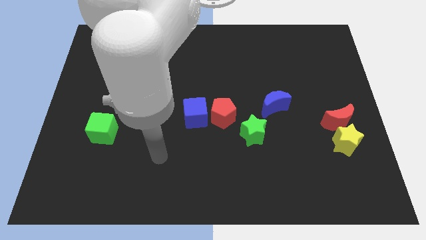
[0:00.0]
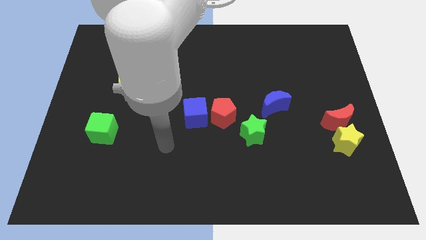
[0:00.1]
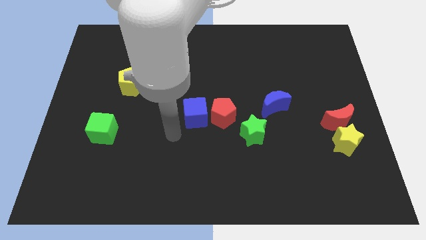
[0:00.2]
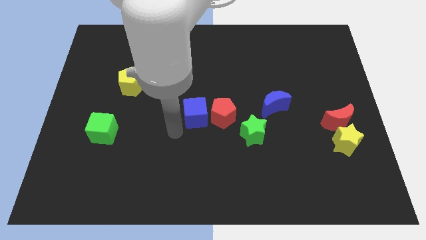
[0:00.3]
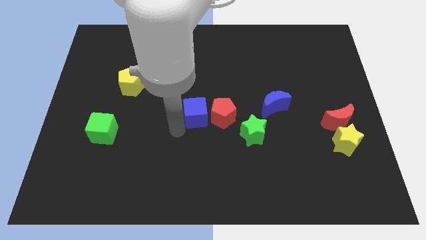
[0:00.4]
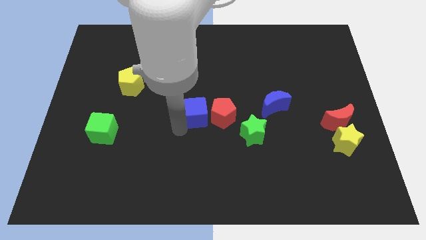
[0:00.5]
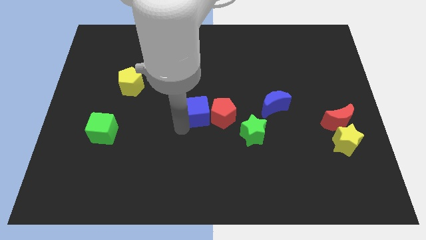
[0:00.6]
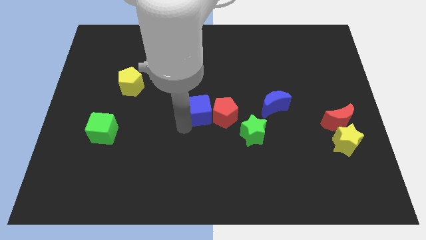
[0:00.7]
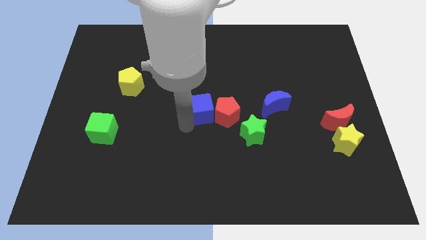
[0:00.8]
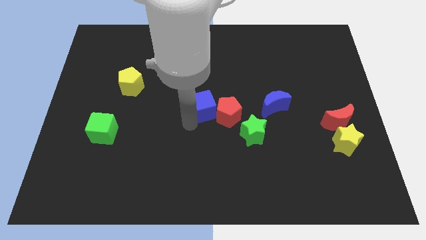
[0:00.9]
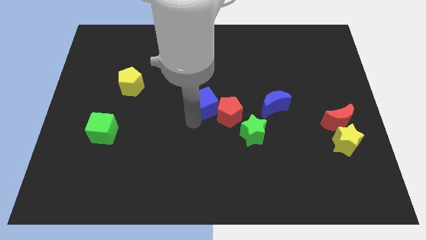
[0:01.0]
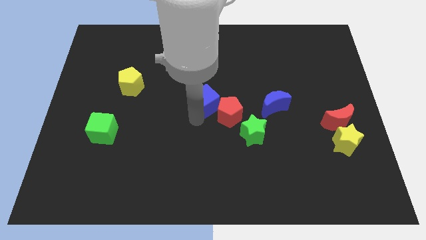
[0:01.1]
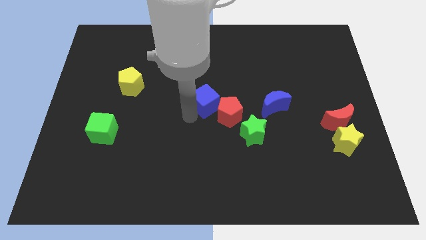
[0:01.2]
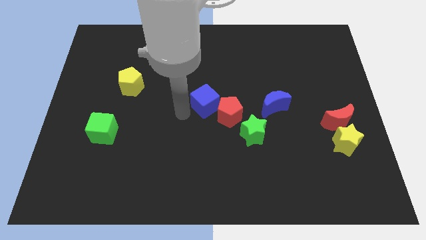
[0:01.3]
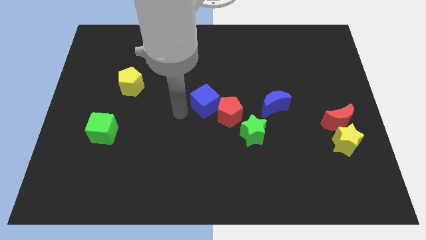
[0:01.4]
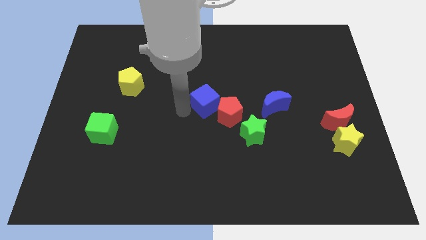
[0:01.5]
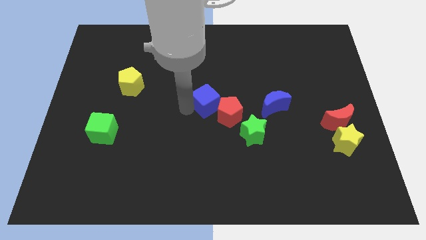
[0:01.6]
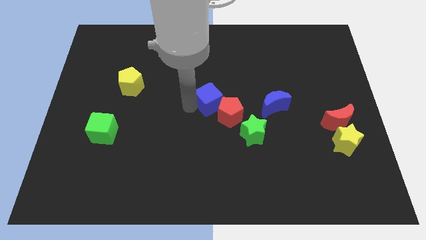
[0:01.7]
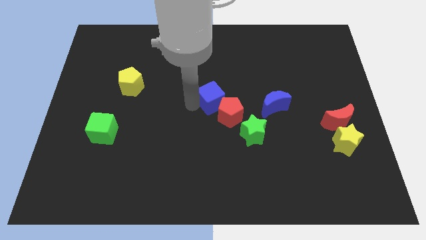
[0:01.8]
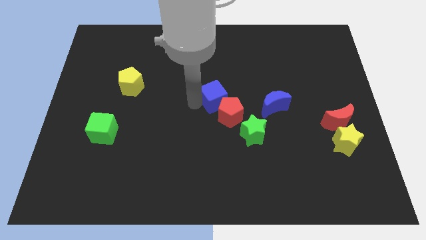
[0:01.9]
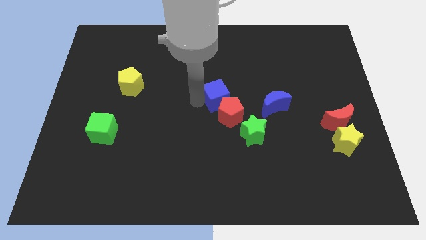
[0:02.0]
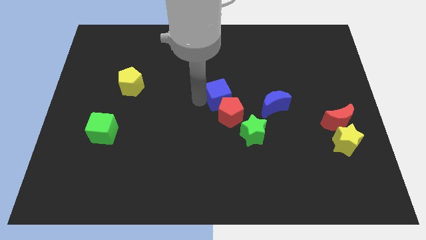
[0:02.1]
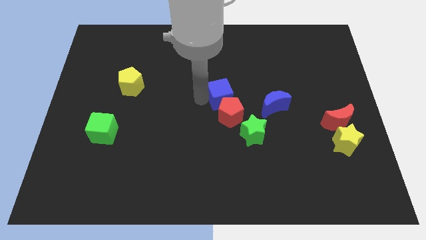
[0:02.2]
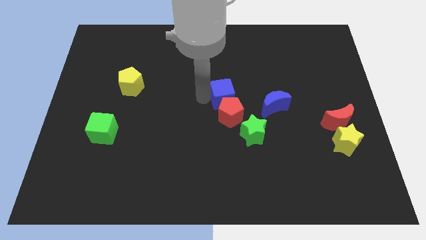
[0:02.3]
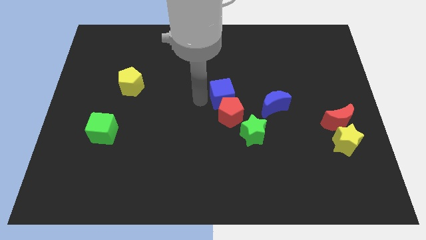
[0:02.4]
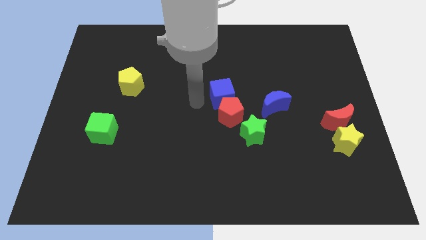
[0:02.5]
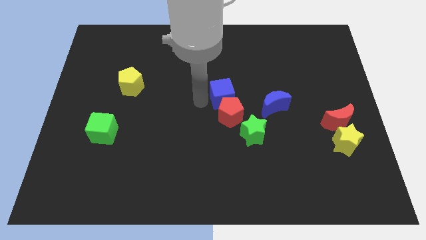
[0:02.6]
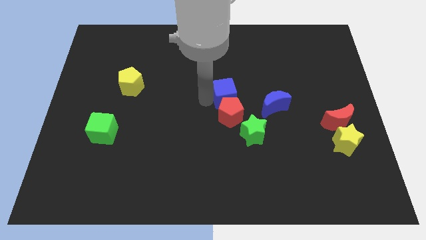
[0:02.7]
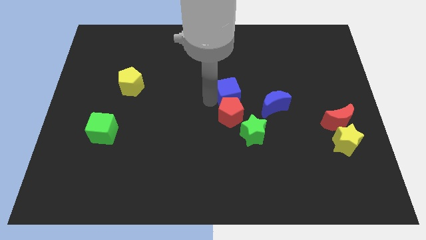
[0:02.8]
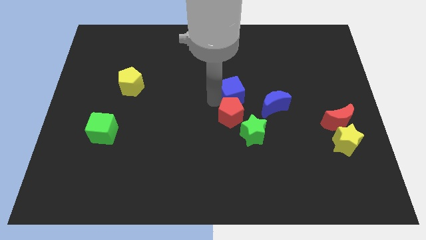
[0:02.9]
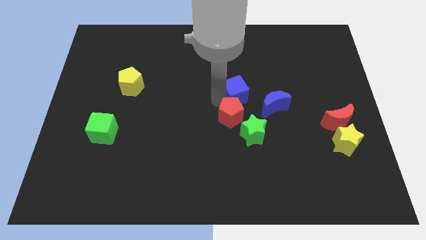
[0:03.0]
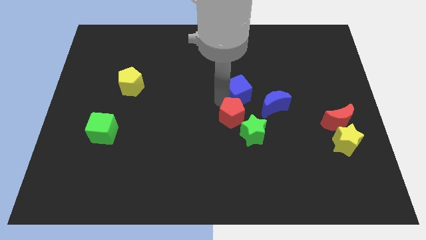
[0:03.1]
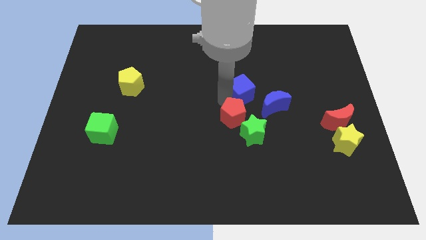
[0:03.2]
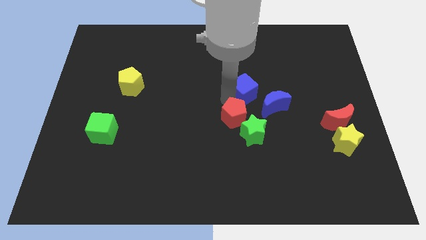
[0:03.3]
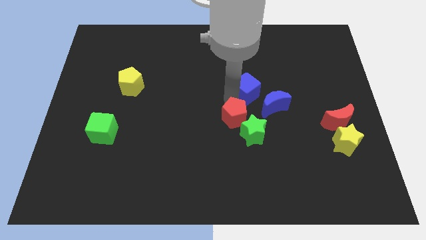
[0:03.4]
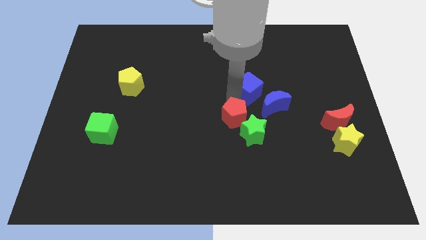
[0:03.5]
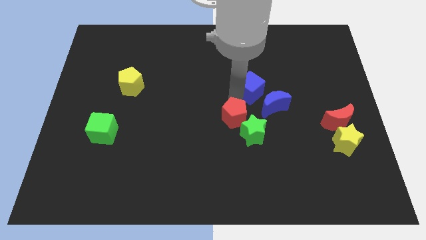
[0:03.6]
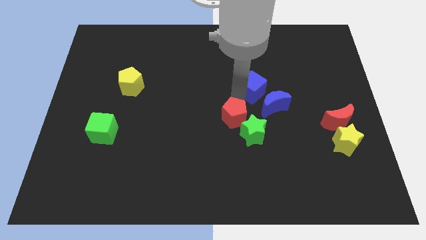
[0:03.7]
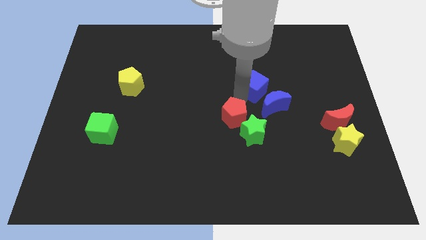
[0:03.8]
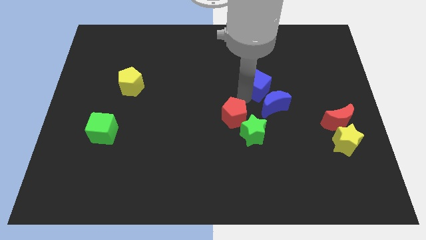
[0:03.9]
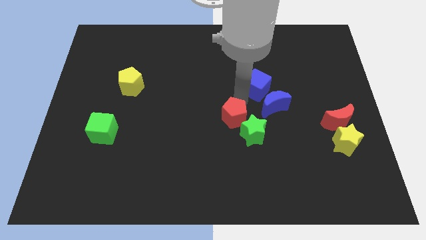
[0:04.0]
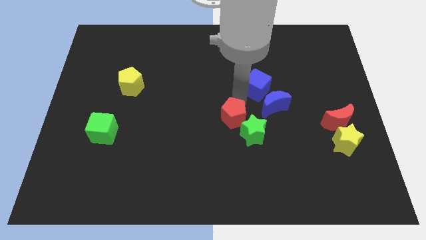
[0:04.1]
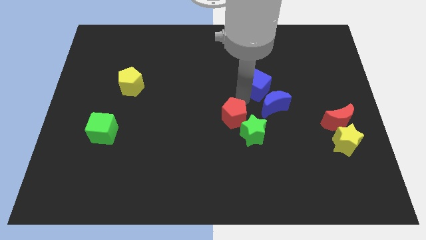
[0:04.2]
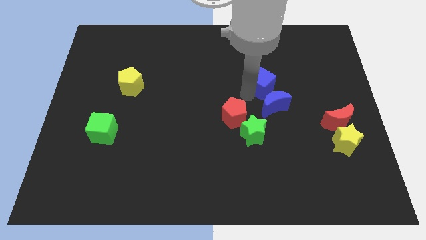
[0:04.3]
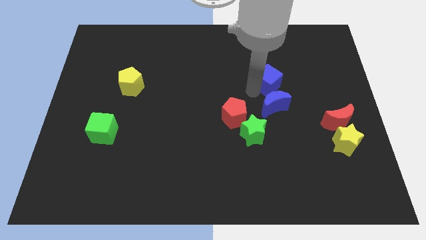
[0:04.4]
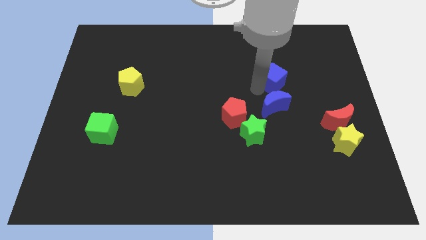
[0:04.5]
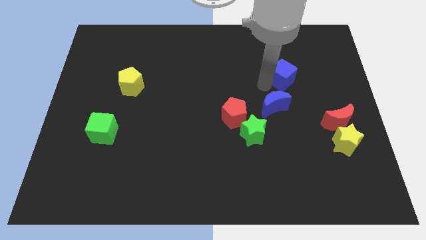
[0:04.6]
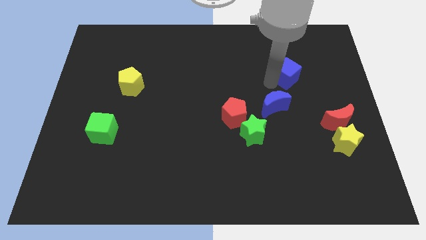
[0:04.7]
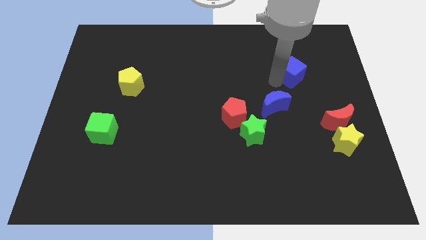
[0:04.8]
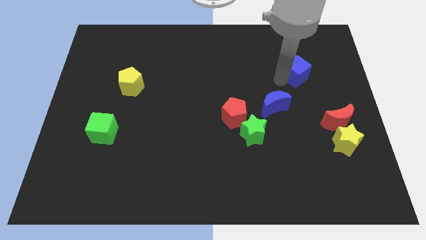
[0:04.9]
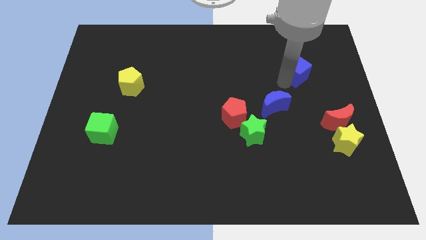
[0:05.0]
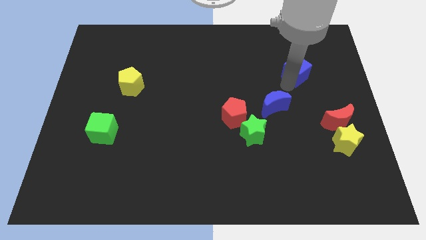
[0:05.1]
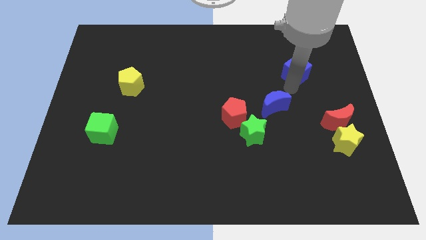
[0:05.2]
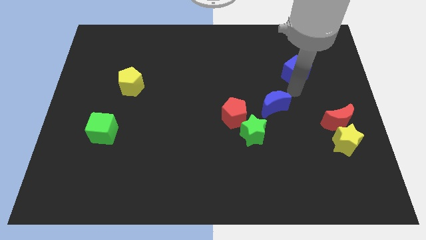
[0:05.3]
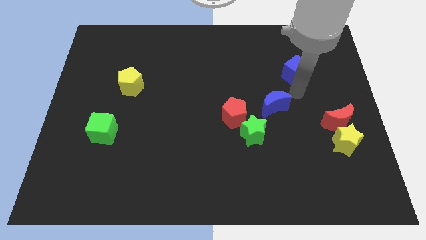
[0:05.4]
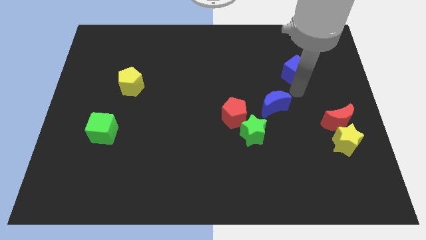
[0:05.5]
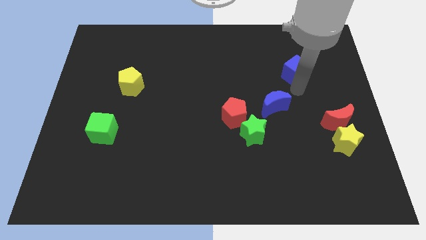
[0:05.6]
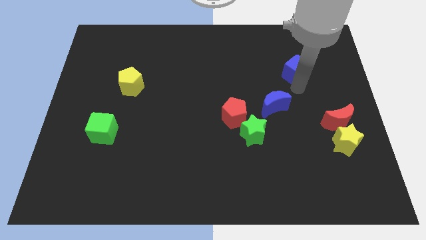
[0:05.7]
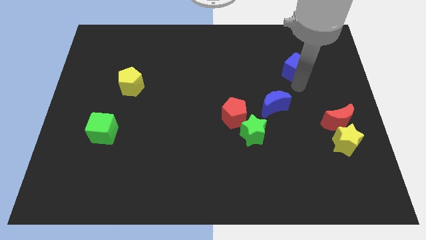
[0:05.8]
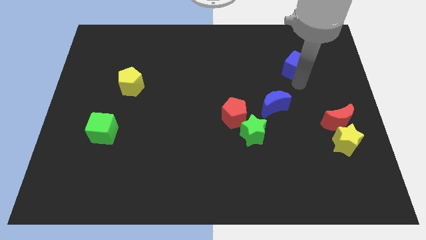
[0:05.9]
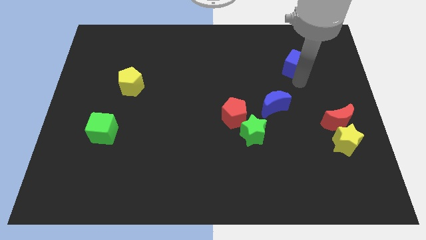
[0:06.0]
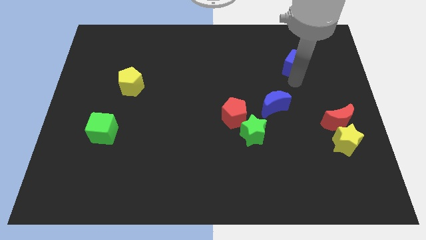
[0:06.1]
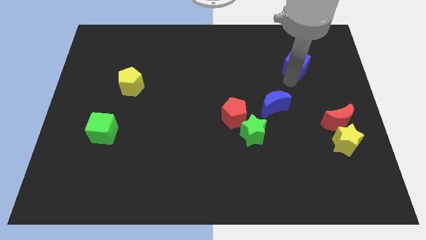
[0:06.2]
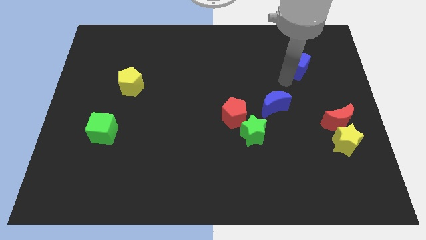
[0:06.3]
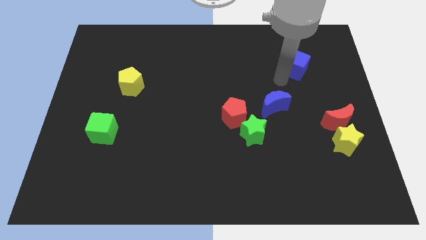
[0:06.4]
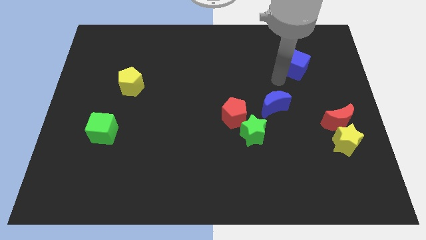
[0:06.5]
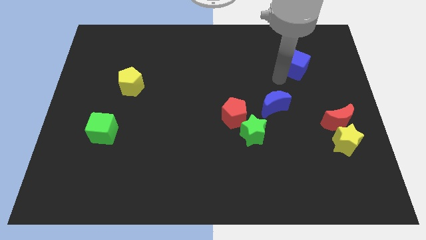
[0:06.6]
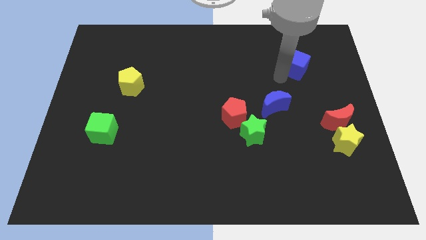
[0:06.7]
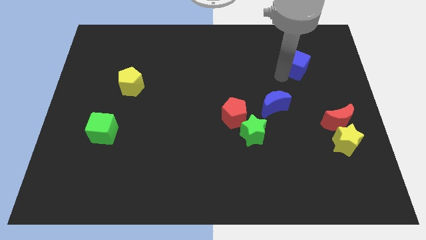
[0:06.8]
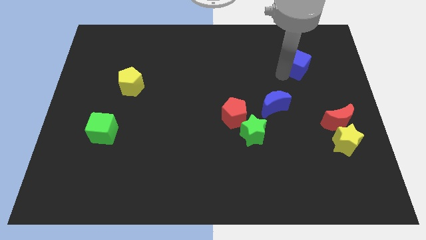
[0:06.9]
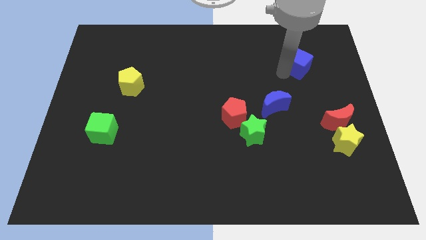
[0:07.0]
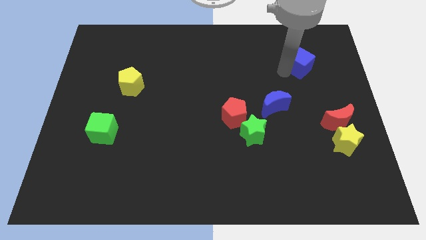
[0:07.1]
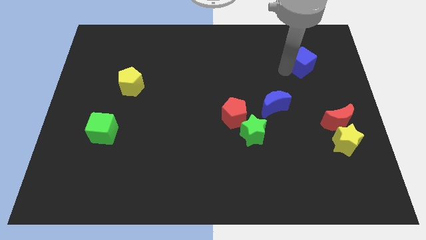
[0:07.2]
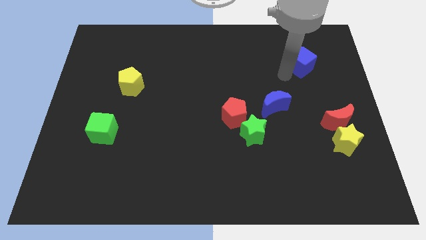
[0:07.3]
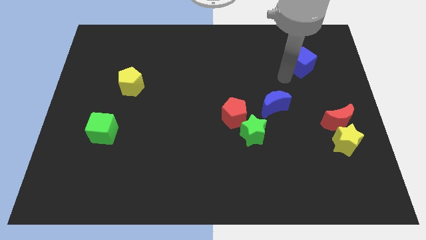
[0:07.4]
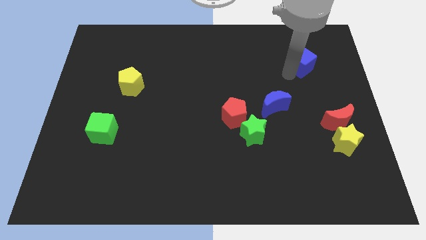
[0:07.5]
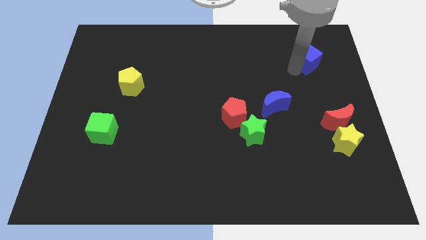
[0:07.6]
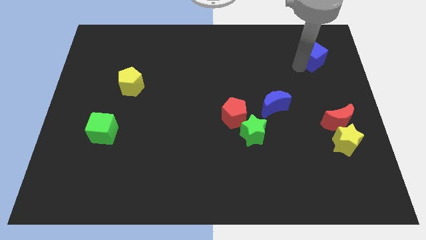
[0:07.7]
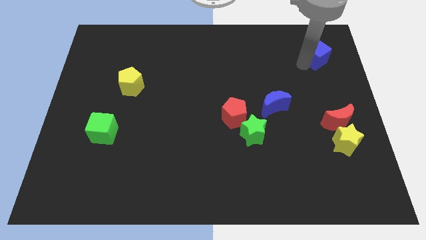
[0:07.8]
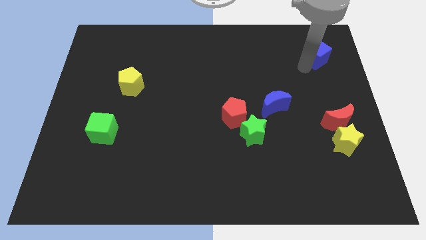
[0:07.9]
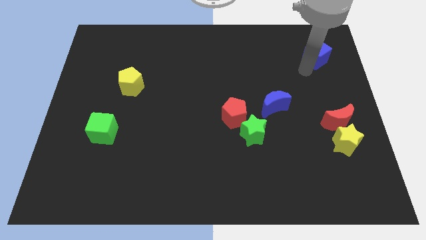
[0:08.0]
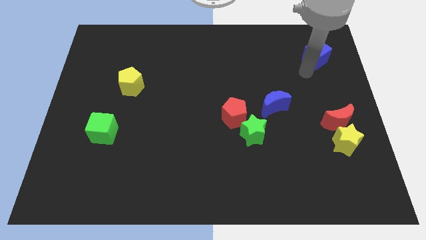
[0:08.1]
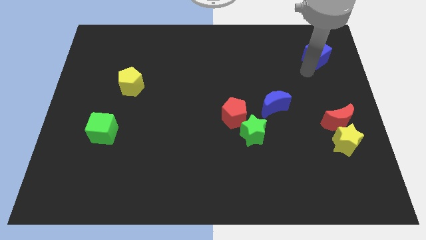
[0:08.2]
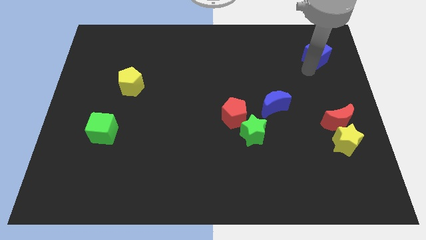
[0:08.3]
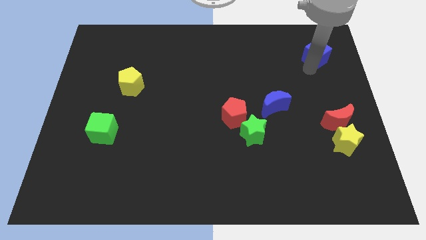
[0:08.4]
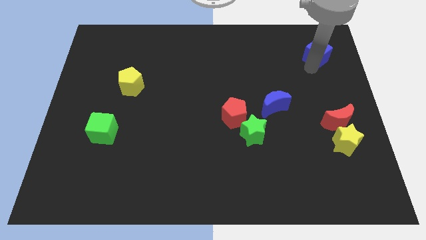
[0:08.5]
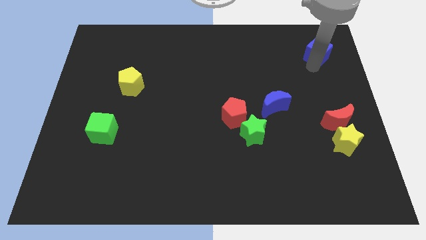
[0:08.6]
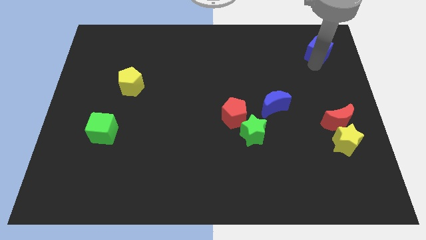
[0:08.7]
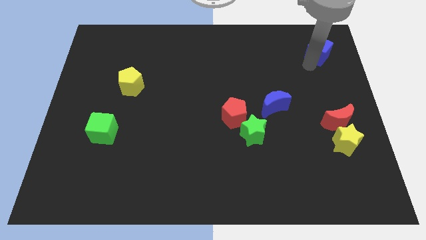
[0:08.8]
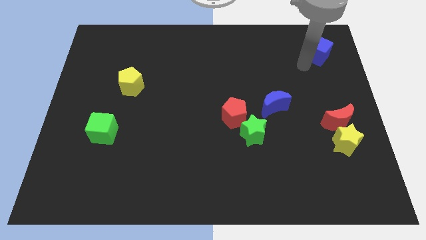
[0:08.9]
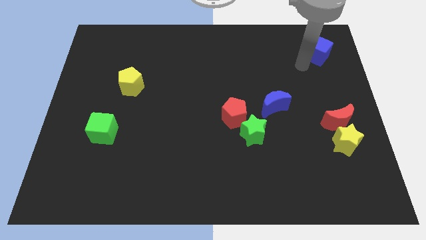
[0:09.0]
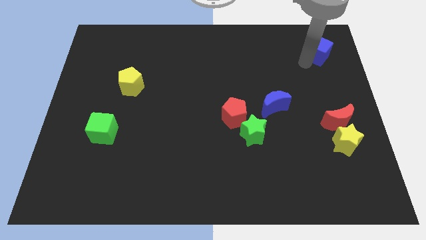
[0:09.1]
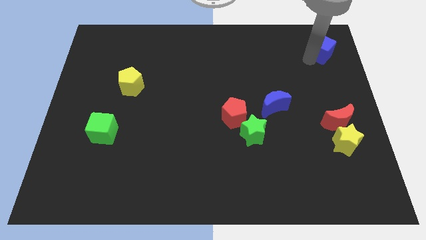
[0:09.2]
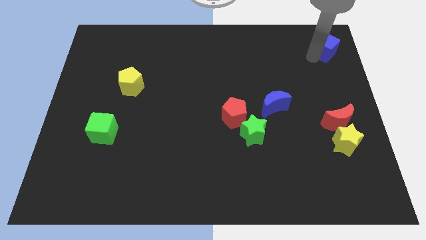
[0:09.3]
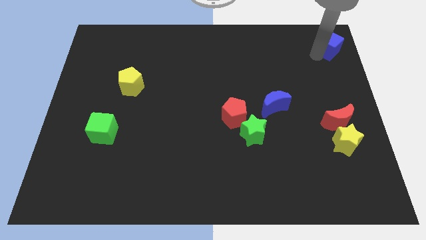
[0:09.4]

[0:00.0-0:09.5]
move the blue cube to the top right of the board
